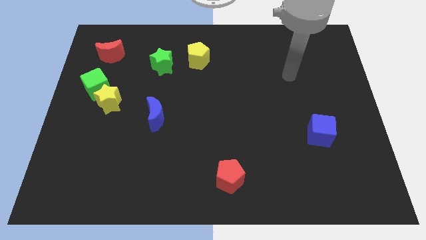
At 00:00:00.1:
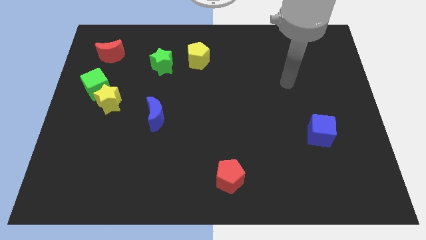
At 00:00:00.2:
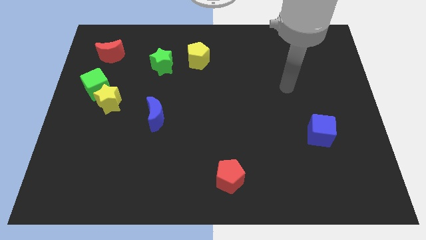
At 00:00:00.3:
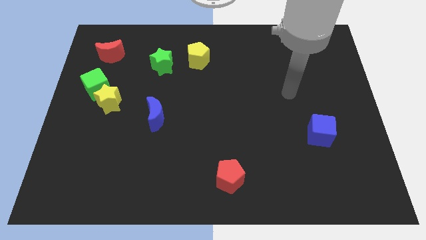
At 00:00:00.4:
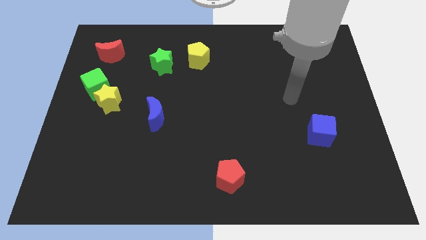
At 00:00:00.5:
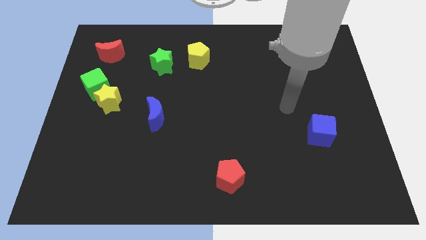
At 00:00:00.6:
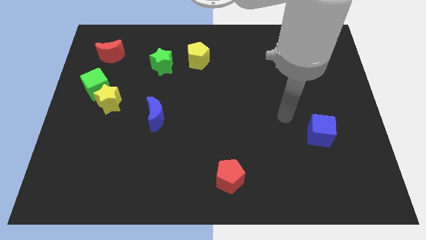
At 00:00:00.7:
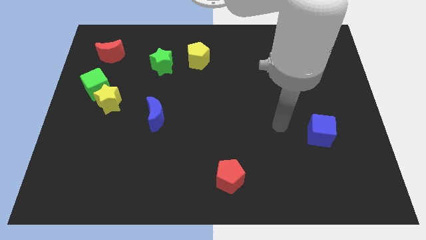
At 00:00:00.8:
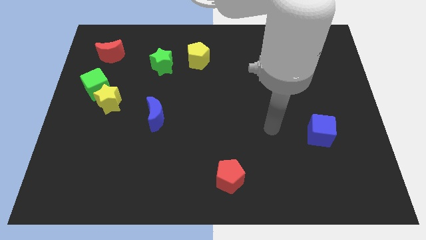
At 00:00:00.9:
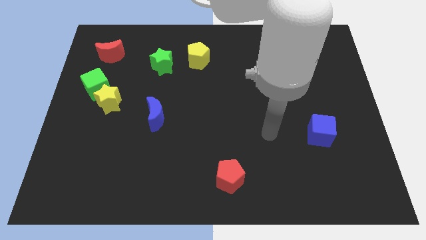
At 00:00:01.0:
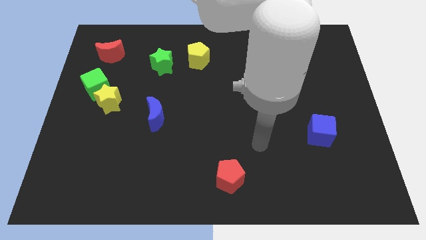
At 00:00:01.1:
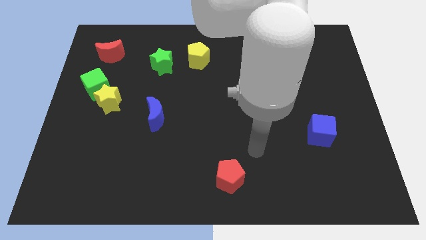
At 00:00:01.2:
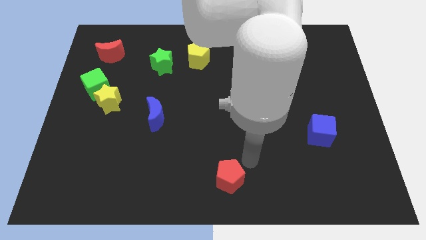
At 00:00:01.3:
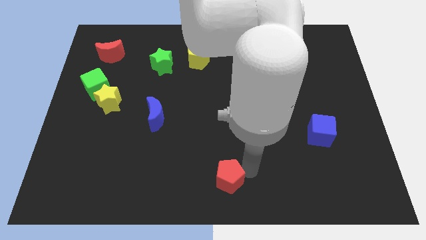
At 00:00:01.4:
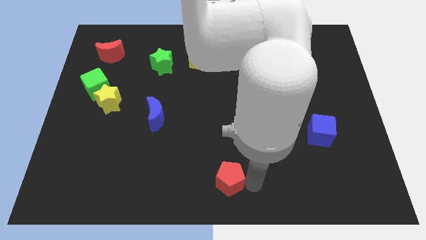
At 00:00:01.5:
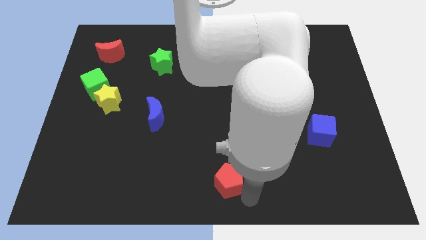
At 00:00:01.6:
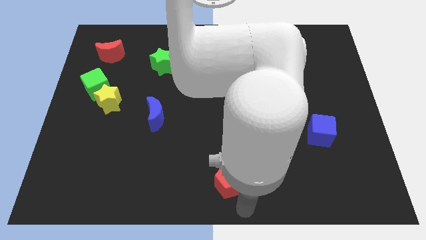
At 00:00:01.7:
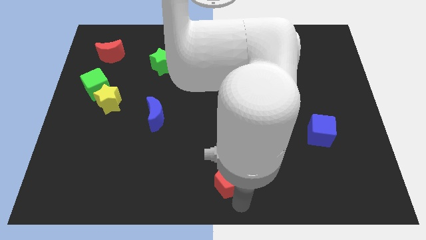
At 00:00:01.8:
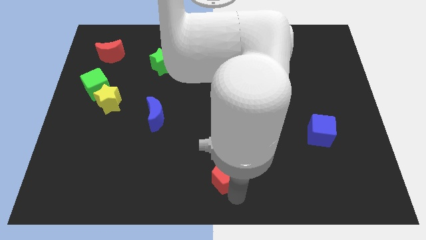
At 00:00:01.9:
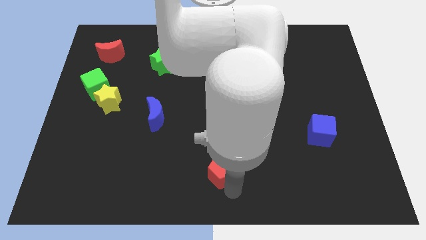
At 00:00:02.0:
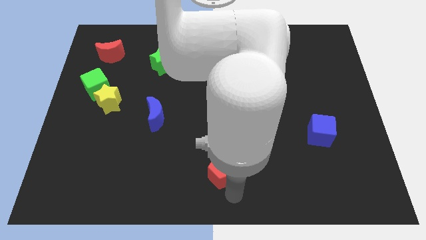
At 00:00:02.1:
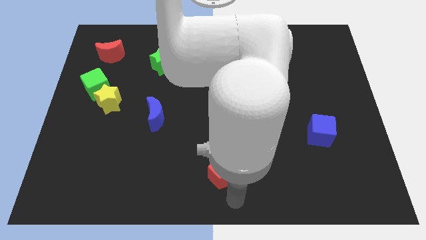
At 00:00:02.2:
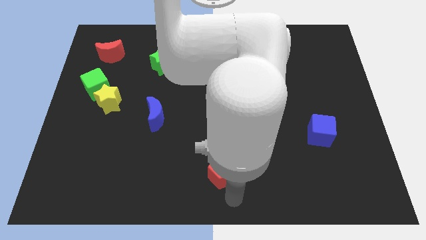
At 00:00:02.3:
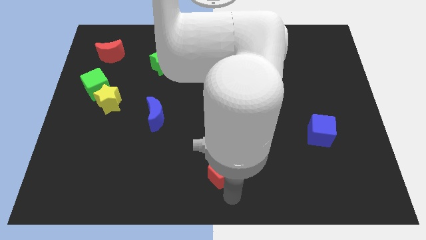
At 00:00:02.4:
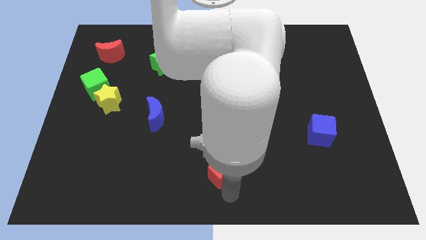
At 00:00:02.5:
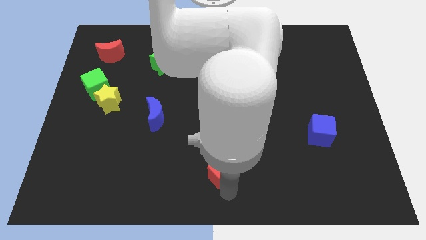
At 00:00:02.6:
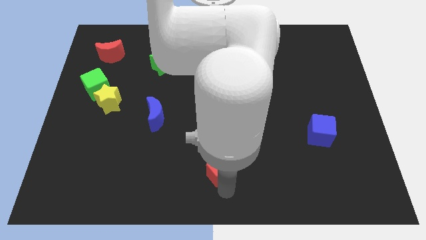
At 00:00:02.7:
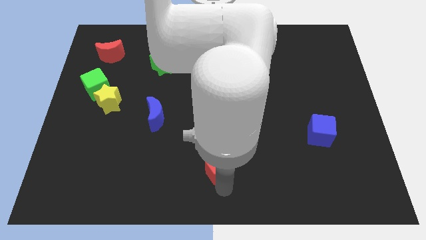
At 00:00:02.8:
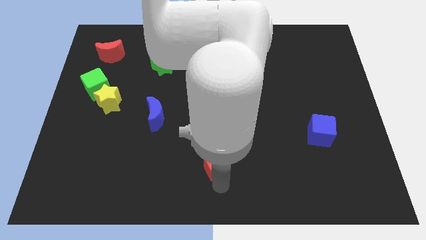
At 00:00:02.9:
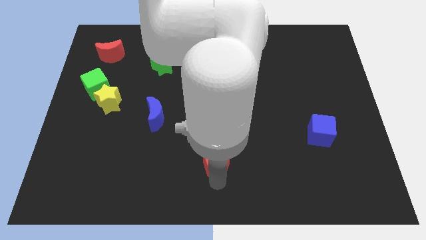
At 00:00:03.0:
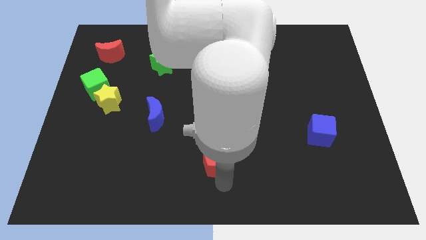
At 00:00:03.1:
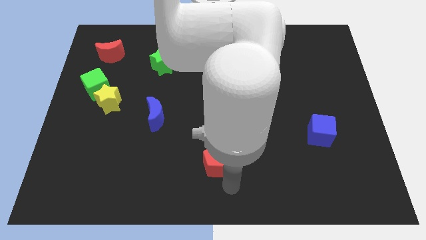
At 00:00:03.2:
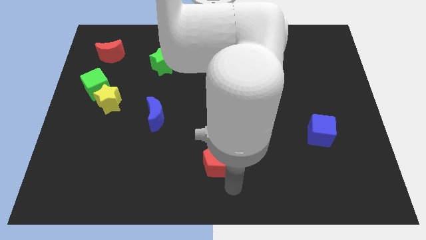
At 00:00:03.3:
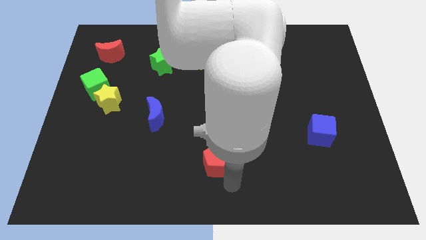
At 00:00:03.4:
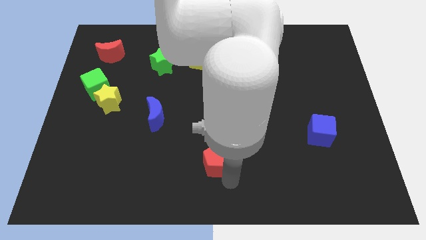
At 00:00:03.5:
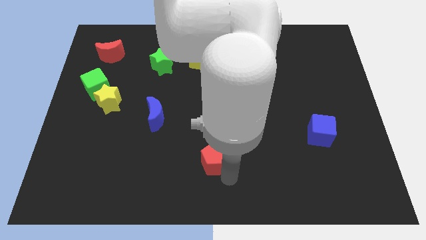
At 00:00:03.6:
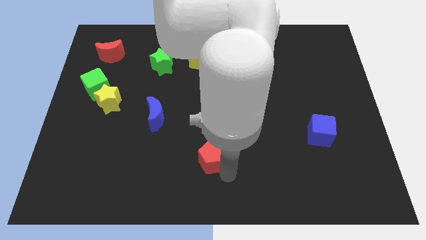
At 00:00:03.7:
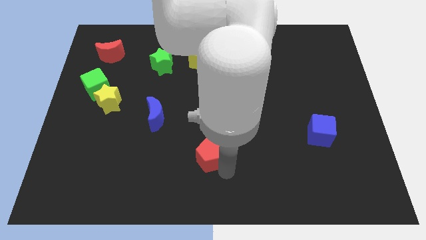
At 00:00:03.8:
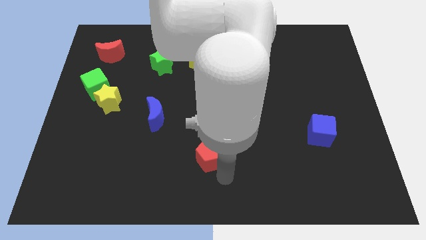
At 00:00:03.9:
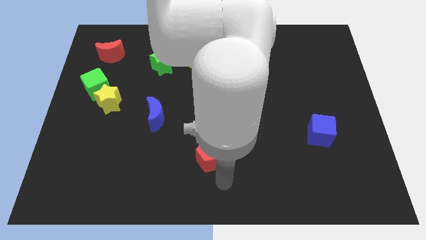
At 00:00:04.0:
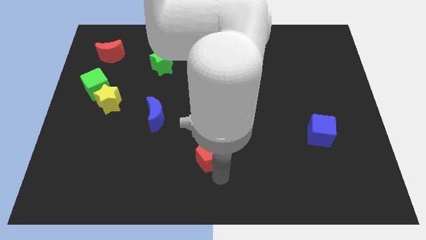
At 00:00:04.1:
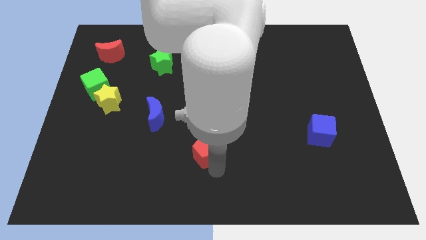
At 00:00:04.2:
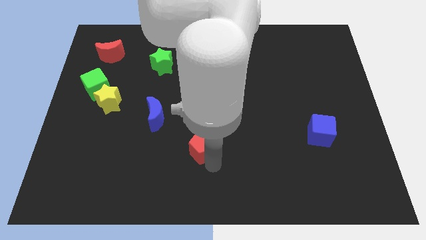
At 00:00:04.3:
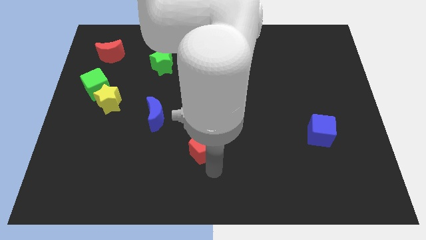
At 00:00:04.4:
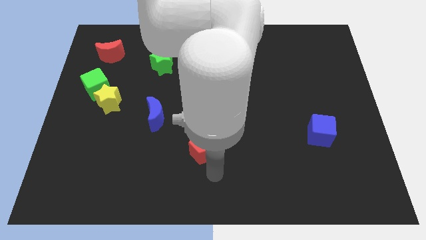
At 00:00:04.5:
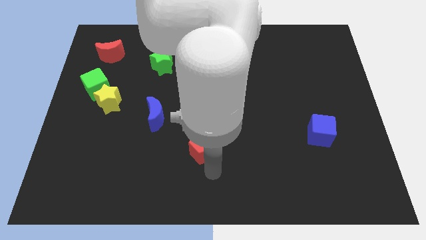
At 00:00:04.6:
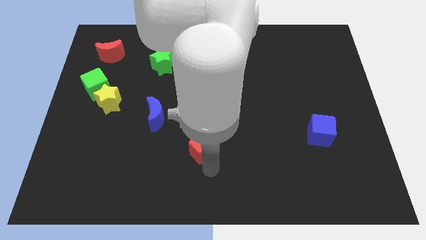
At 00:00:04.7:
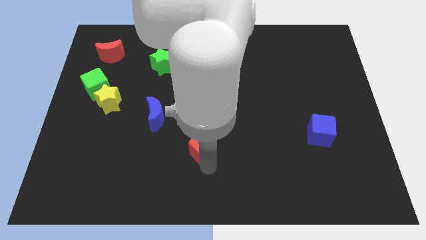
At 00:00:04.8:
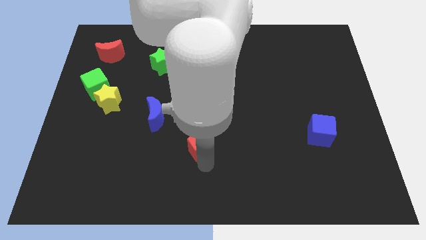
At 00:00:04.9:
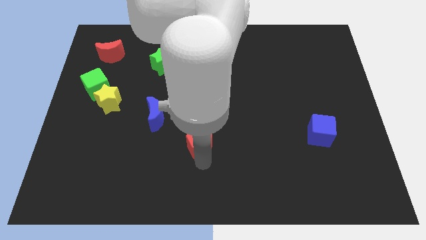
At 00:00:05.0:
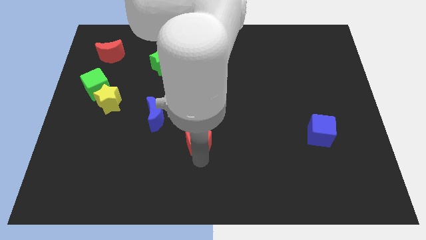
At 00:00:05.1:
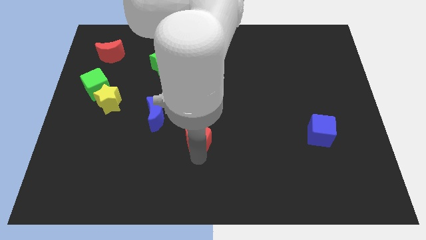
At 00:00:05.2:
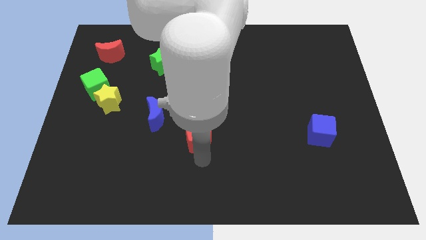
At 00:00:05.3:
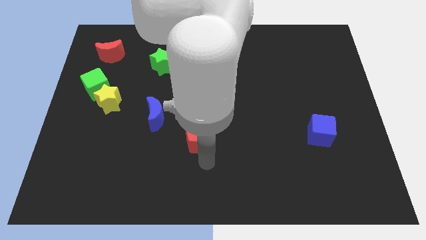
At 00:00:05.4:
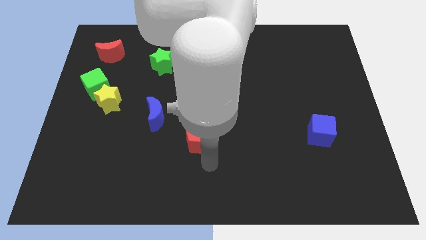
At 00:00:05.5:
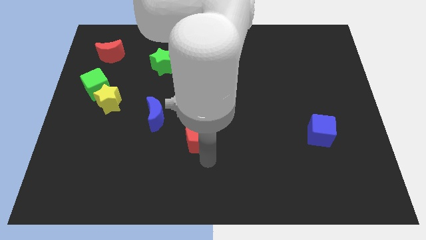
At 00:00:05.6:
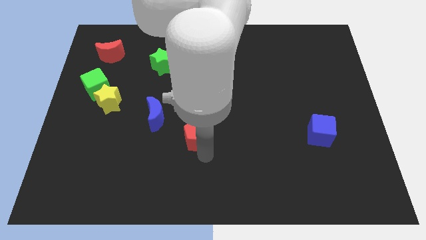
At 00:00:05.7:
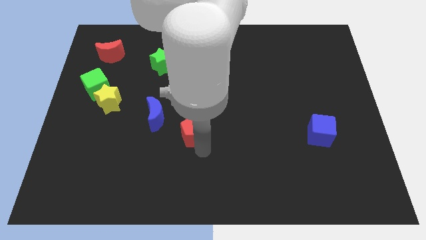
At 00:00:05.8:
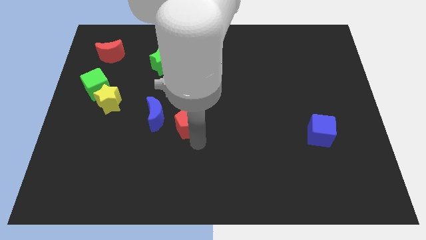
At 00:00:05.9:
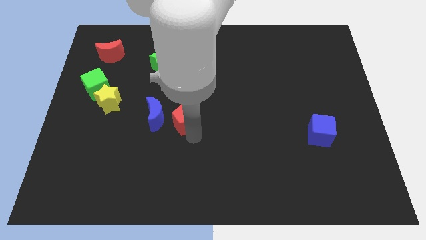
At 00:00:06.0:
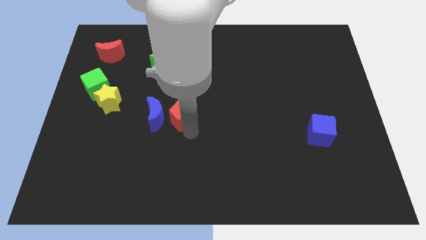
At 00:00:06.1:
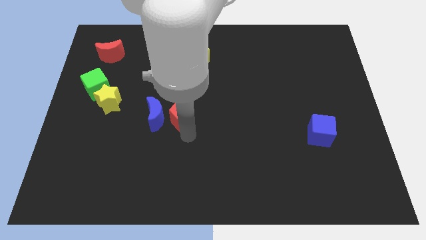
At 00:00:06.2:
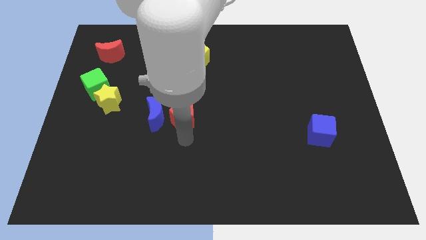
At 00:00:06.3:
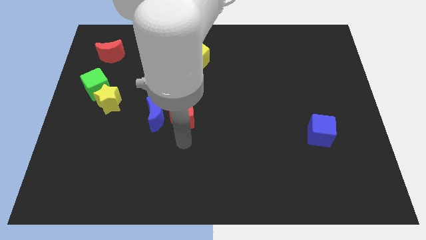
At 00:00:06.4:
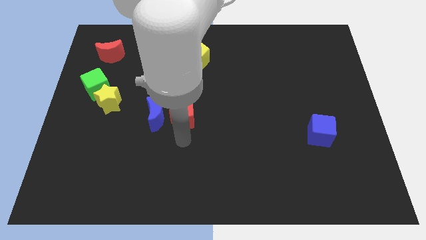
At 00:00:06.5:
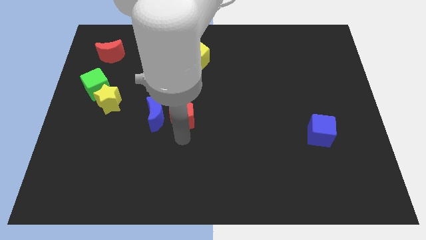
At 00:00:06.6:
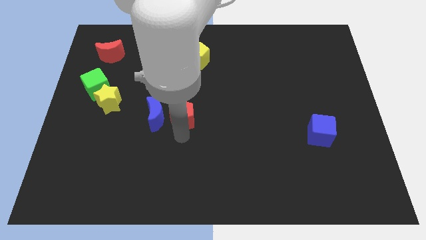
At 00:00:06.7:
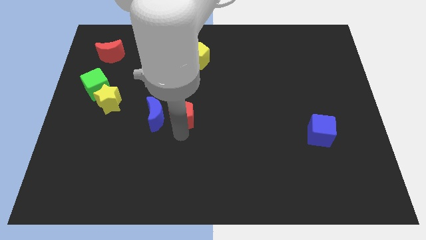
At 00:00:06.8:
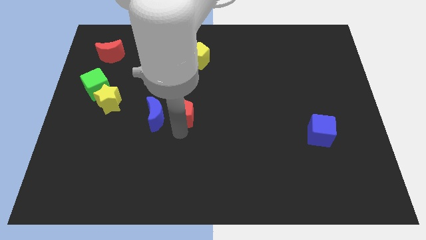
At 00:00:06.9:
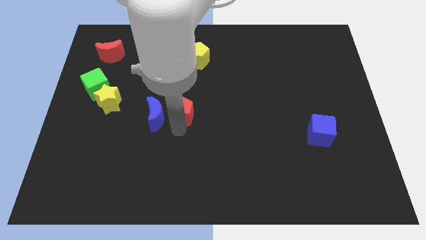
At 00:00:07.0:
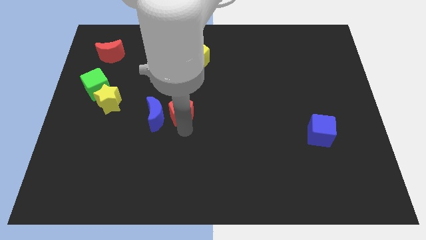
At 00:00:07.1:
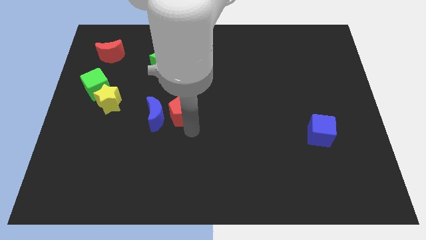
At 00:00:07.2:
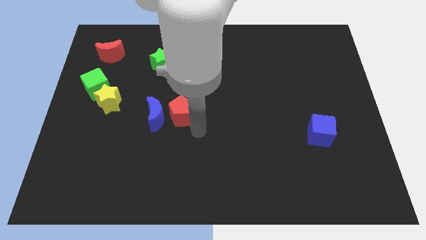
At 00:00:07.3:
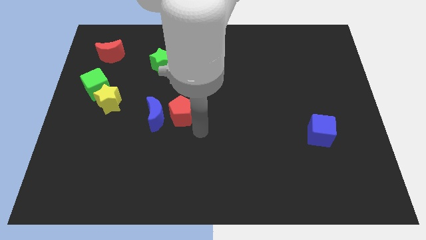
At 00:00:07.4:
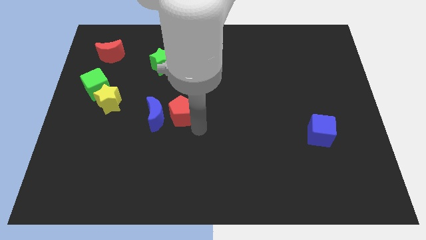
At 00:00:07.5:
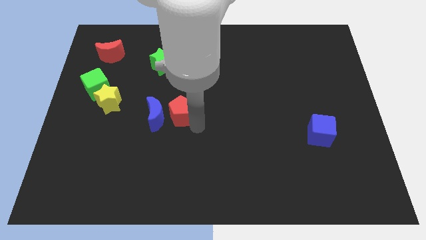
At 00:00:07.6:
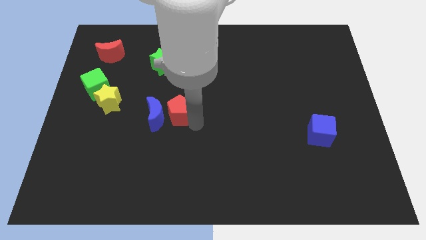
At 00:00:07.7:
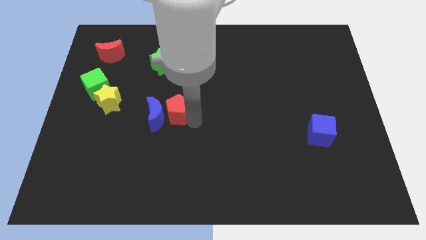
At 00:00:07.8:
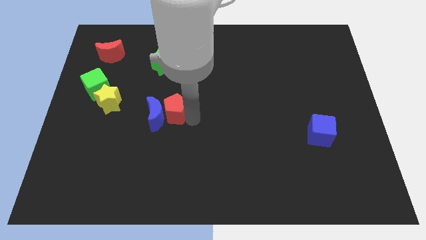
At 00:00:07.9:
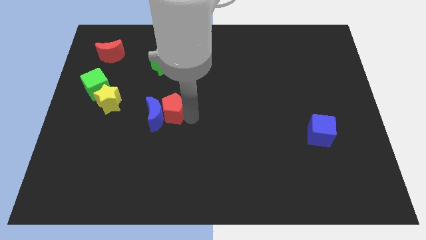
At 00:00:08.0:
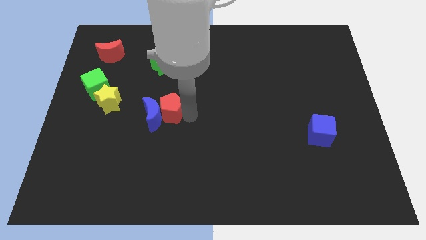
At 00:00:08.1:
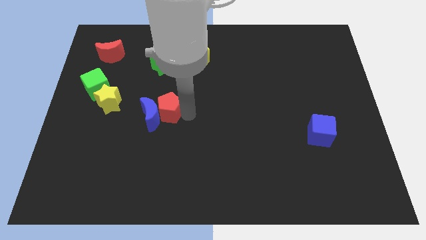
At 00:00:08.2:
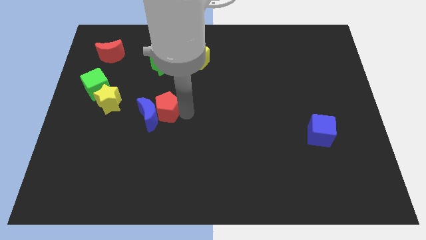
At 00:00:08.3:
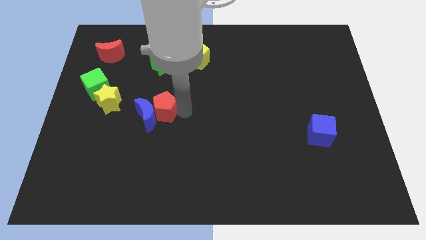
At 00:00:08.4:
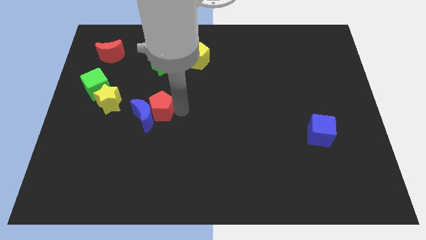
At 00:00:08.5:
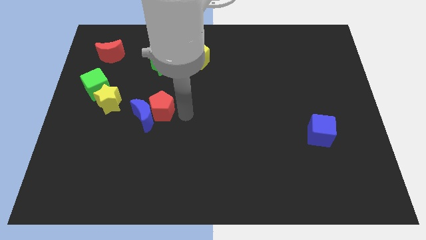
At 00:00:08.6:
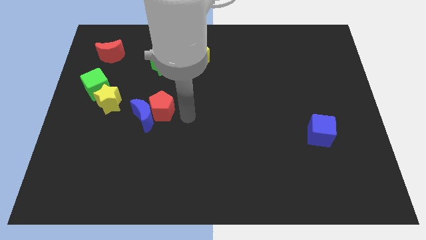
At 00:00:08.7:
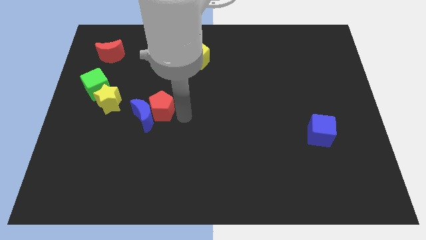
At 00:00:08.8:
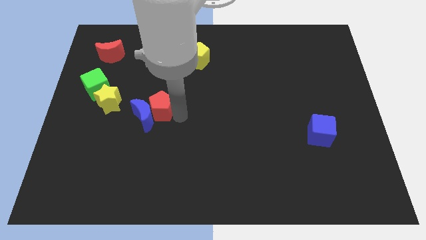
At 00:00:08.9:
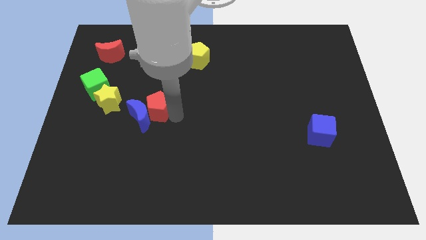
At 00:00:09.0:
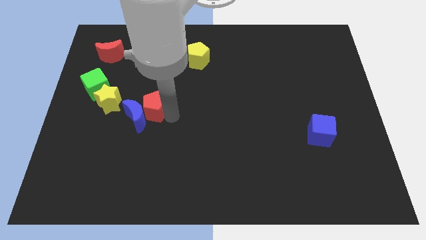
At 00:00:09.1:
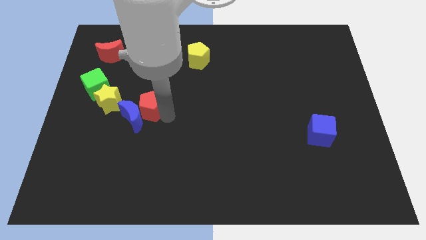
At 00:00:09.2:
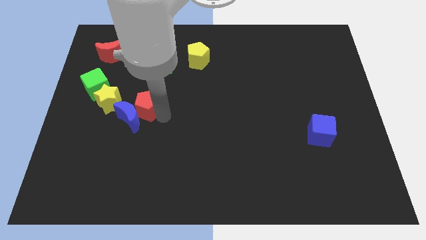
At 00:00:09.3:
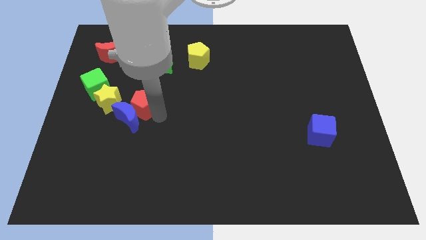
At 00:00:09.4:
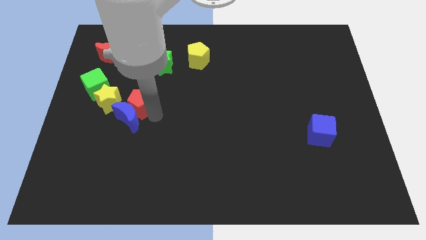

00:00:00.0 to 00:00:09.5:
slide the red pentagon to the top left side of the blue moon
